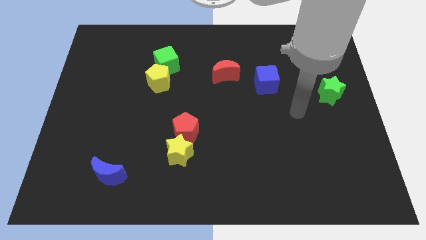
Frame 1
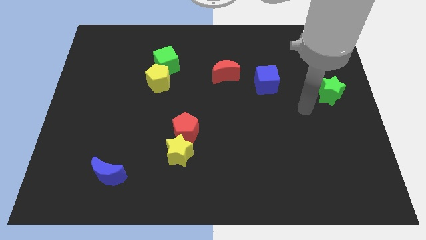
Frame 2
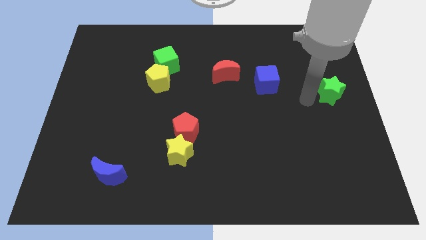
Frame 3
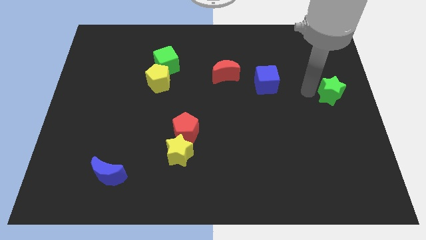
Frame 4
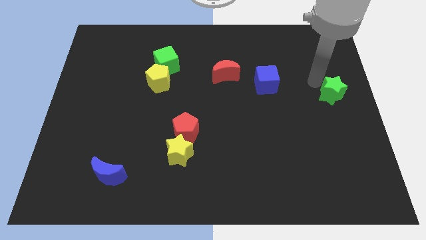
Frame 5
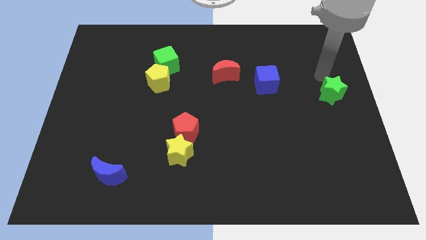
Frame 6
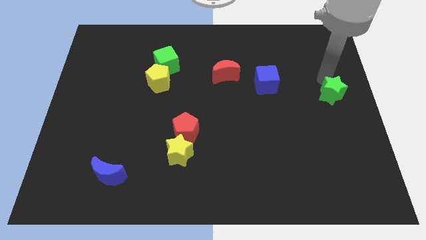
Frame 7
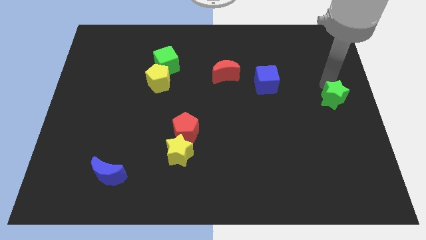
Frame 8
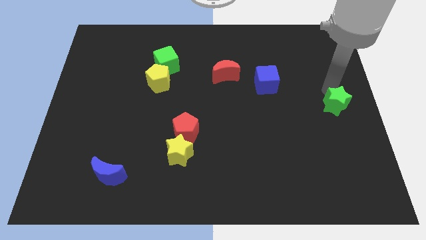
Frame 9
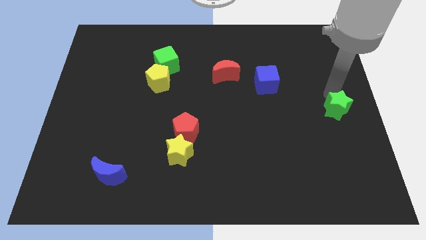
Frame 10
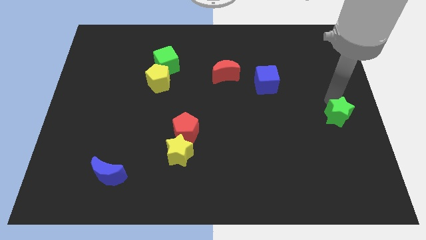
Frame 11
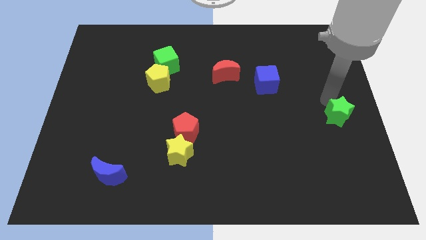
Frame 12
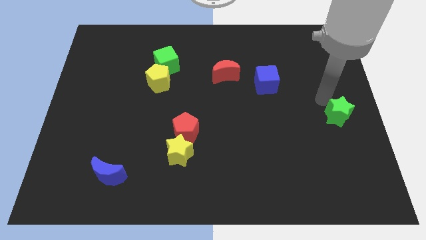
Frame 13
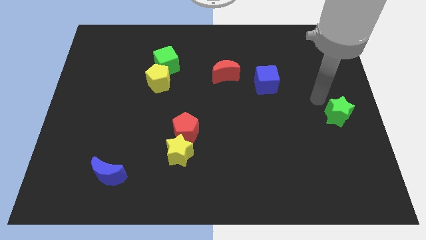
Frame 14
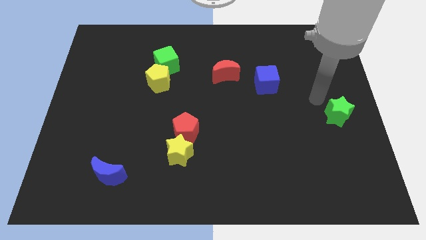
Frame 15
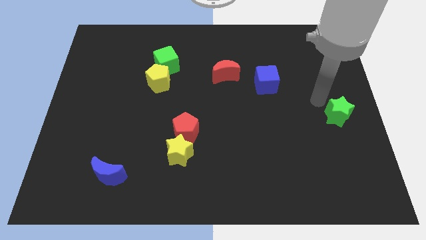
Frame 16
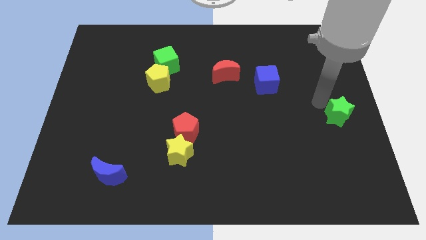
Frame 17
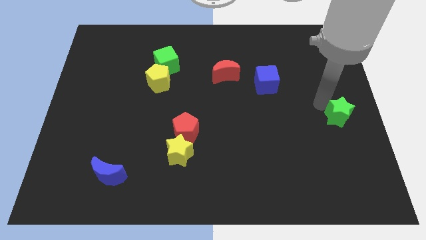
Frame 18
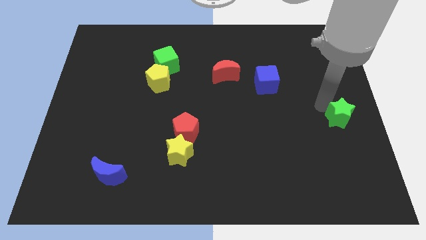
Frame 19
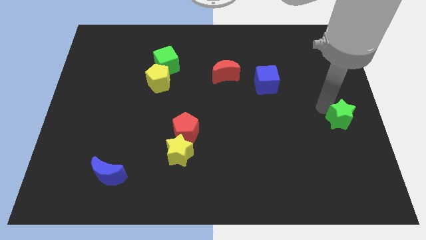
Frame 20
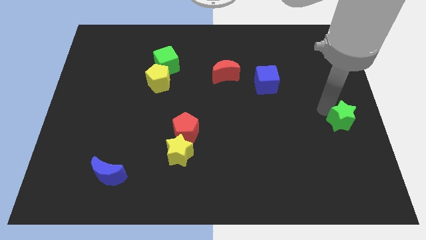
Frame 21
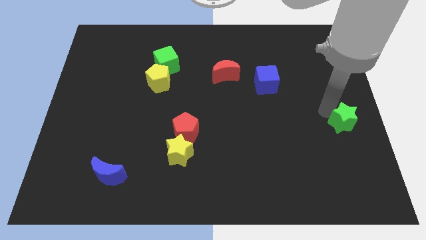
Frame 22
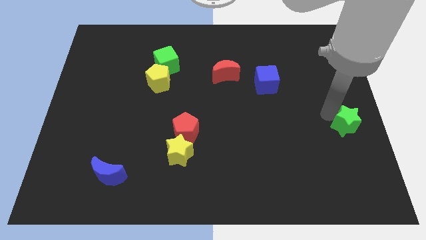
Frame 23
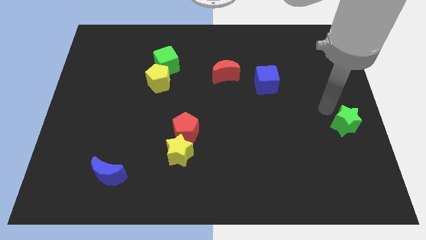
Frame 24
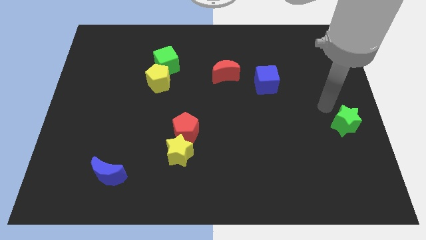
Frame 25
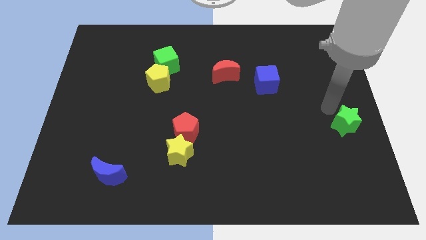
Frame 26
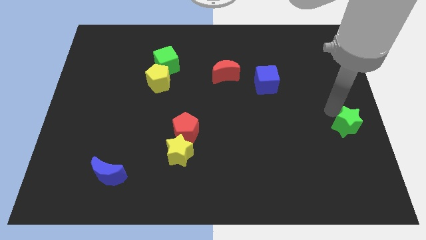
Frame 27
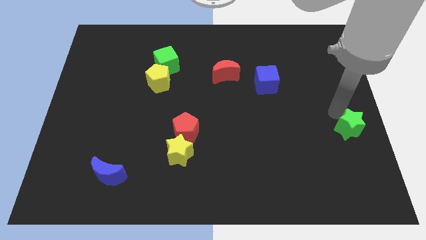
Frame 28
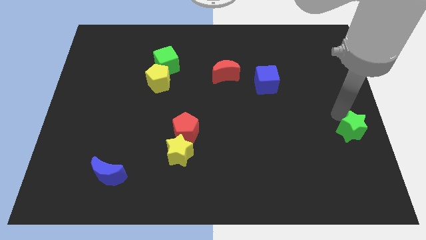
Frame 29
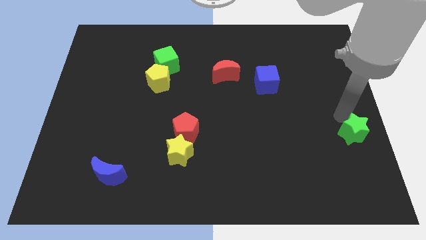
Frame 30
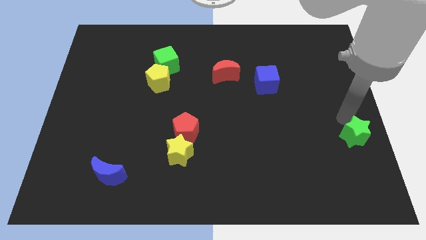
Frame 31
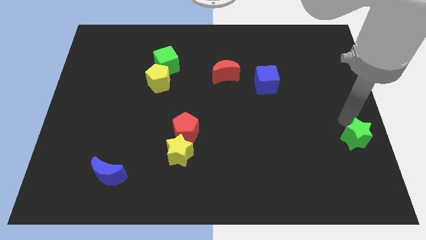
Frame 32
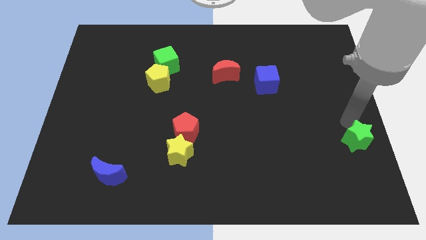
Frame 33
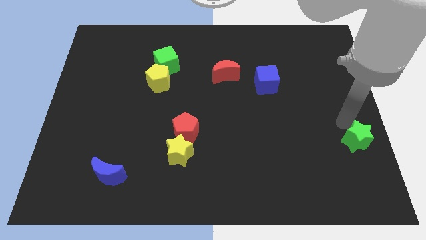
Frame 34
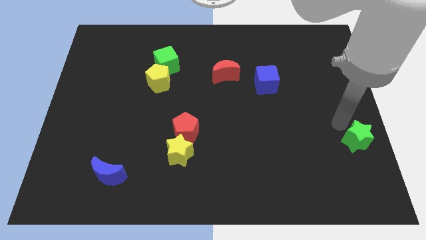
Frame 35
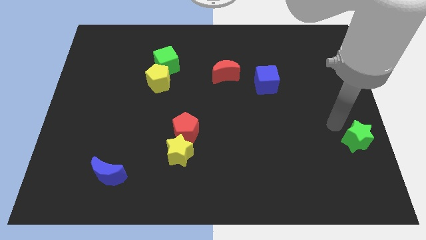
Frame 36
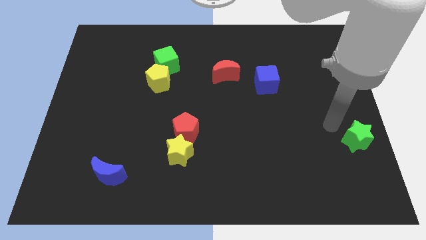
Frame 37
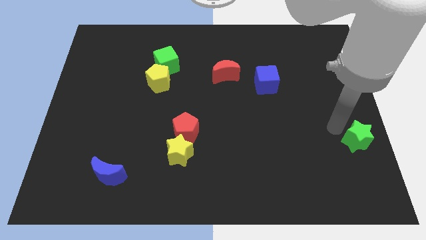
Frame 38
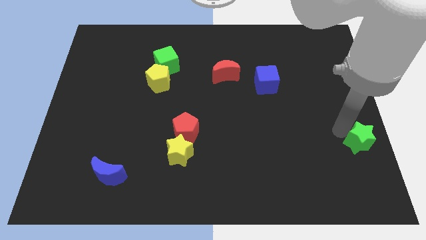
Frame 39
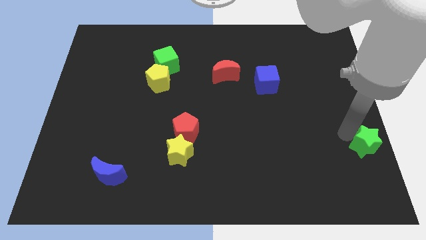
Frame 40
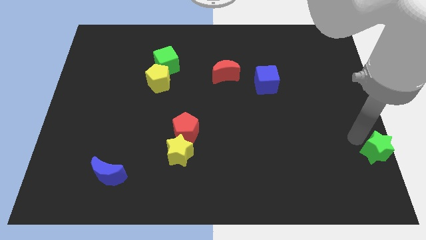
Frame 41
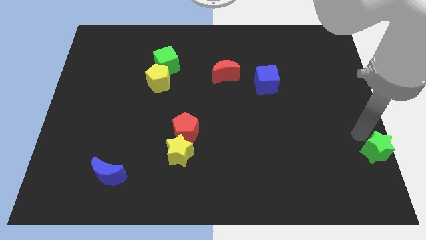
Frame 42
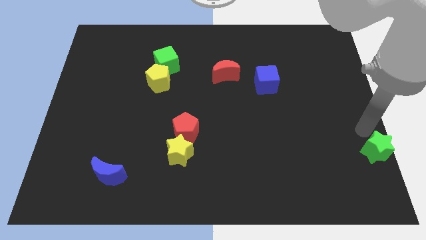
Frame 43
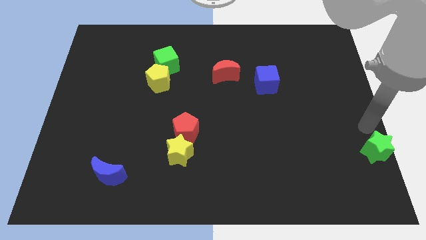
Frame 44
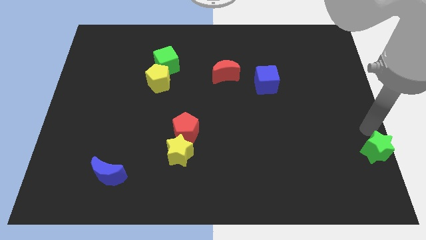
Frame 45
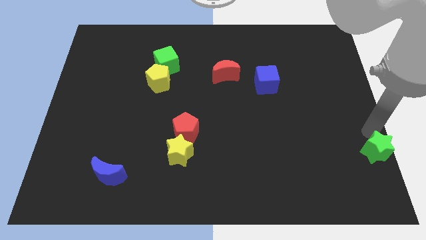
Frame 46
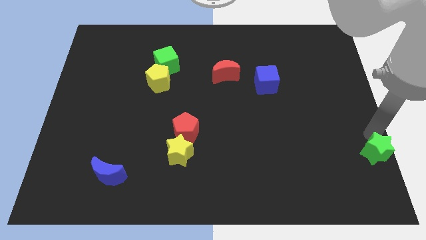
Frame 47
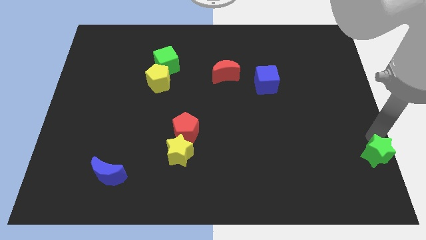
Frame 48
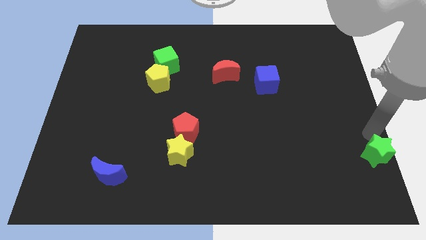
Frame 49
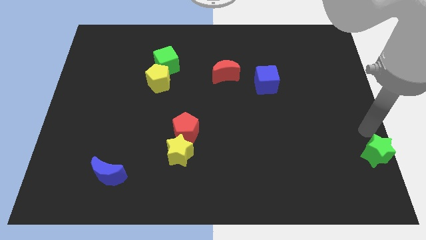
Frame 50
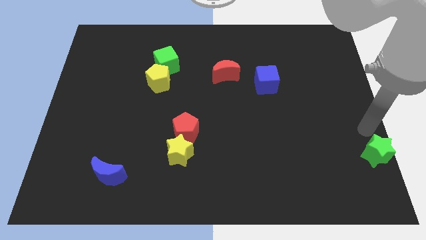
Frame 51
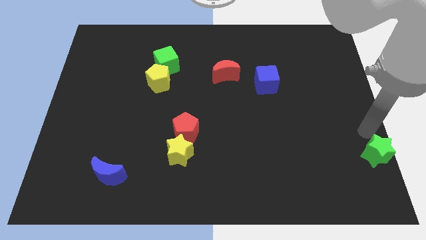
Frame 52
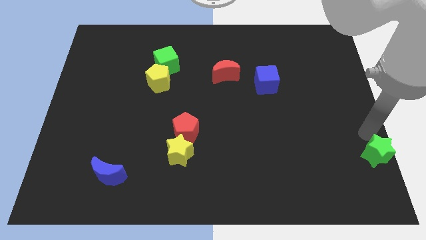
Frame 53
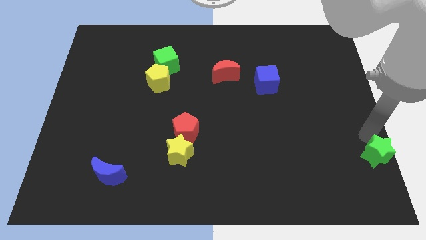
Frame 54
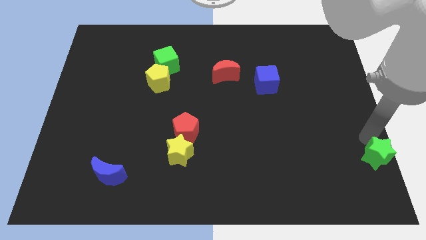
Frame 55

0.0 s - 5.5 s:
move the green star to the bottom right of the board

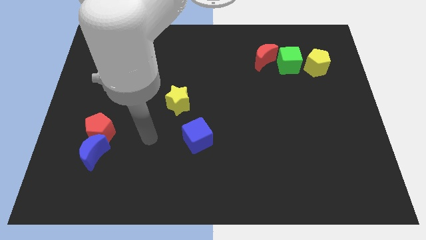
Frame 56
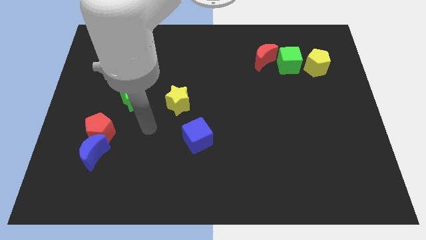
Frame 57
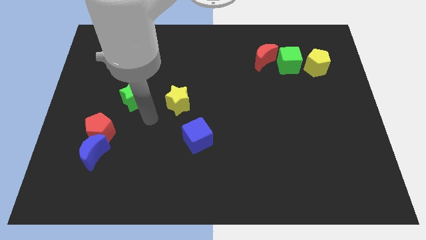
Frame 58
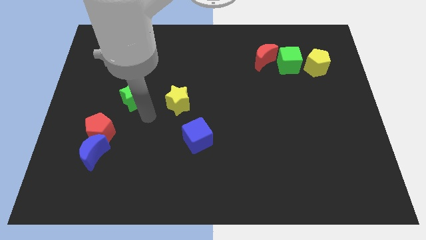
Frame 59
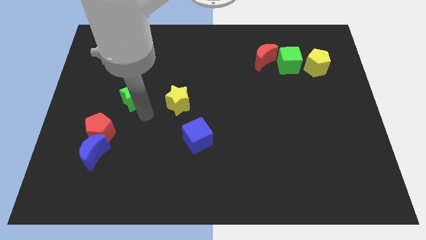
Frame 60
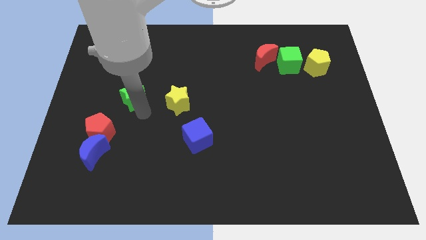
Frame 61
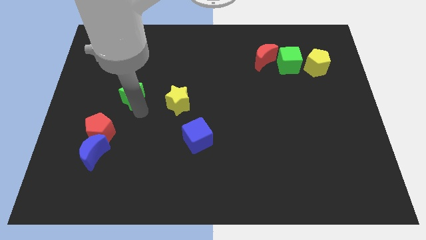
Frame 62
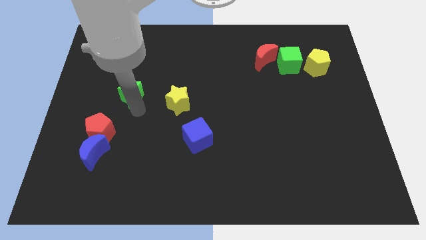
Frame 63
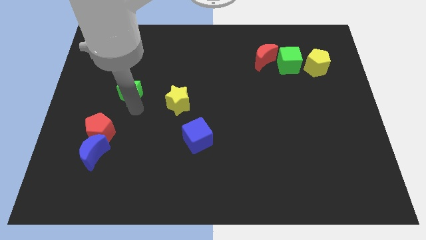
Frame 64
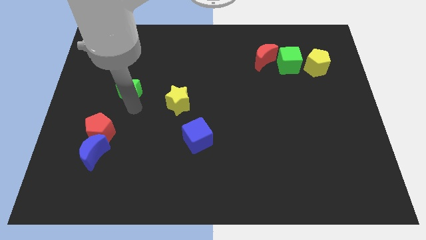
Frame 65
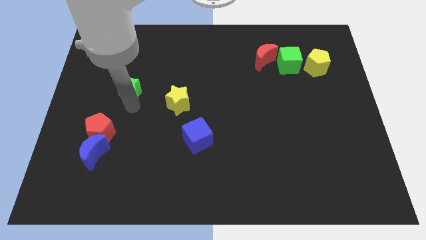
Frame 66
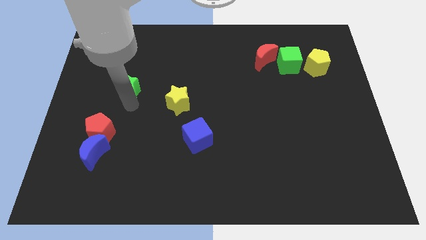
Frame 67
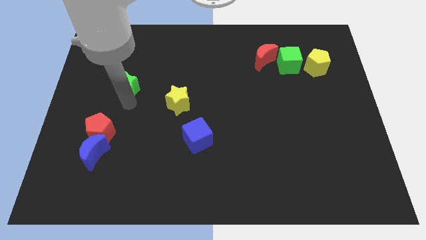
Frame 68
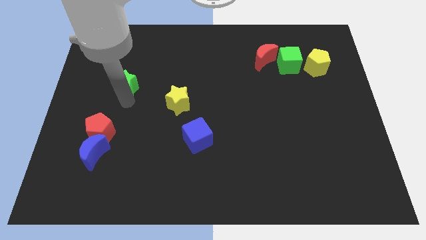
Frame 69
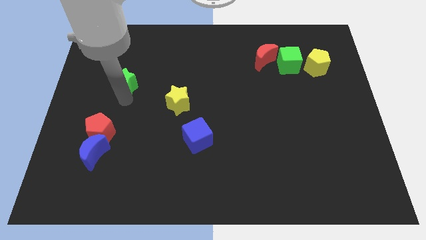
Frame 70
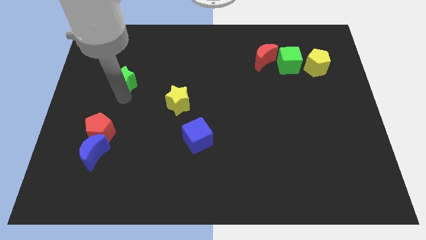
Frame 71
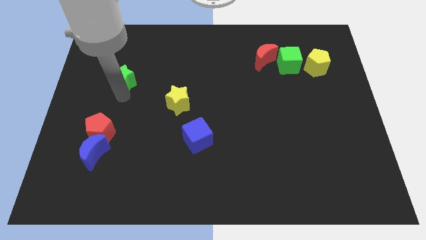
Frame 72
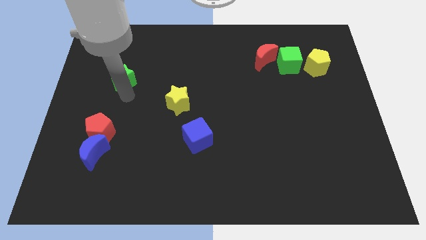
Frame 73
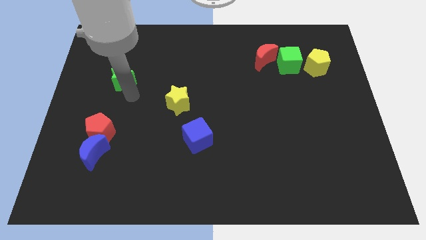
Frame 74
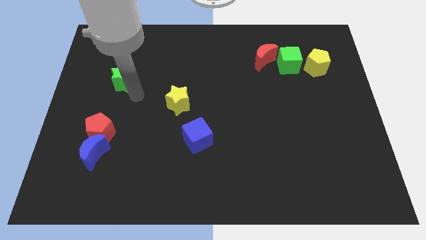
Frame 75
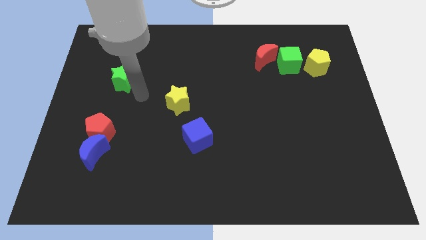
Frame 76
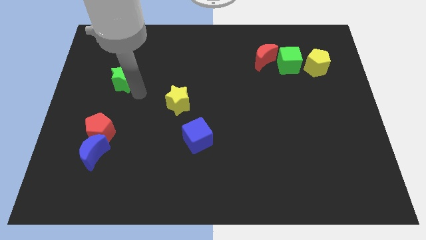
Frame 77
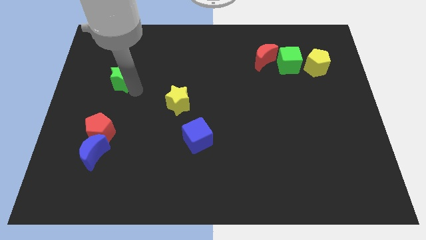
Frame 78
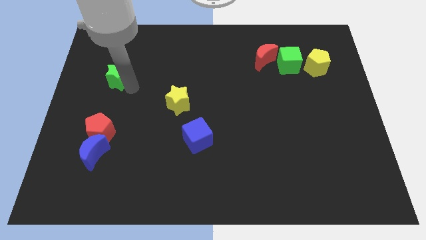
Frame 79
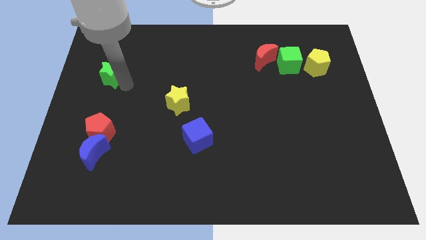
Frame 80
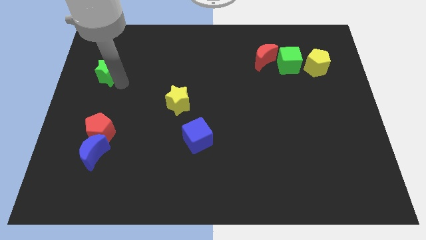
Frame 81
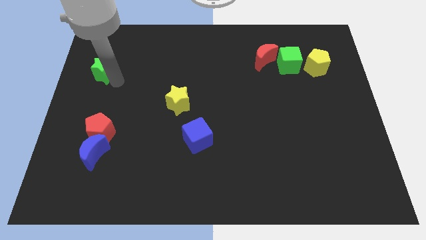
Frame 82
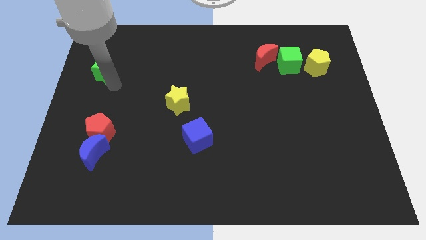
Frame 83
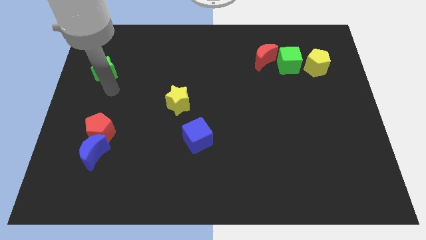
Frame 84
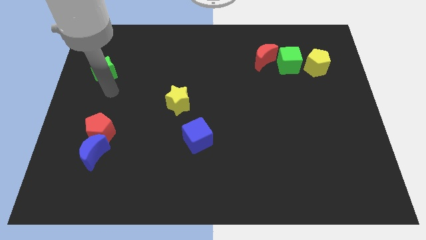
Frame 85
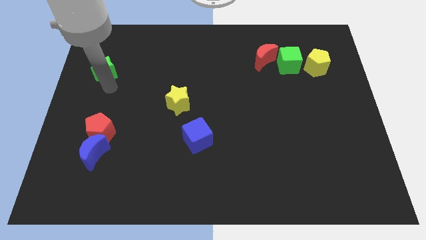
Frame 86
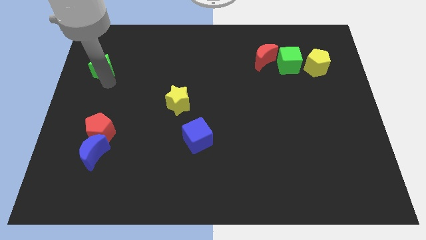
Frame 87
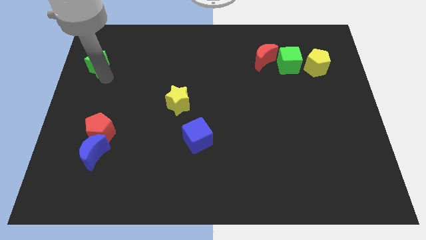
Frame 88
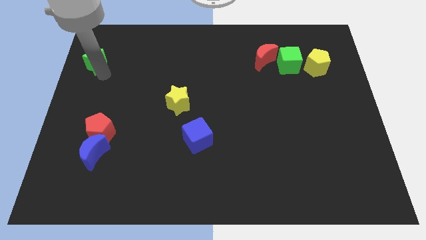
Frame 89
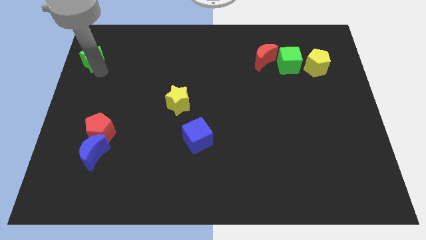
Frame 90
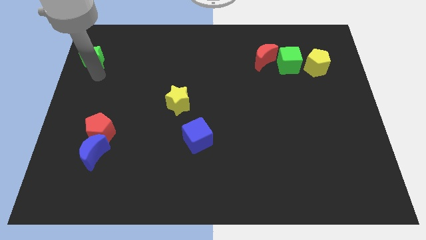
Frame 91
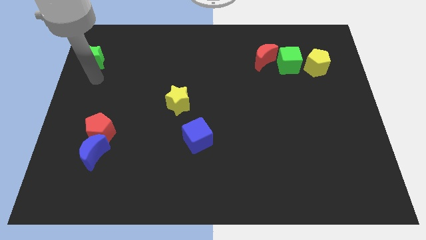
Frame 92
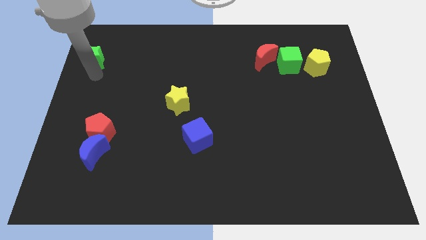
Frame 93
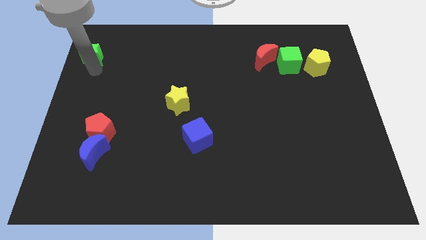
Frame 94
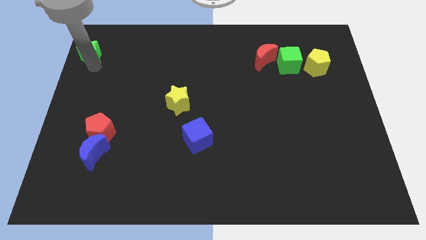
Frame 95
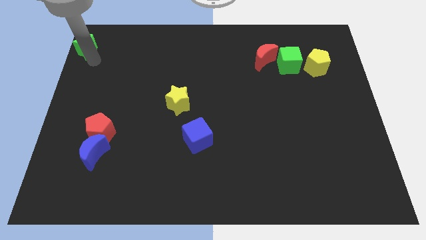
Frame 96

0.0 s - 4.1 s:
move the green star to the upper left corner
